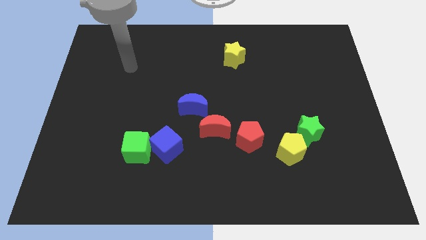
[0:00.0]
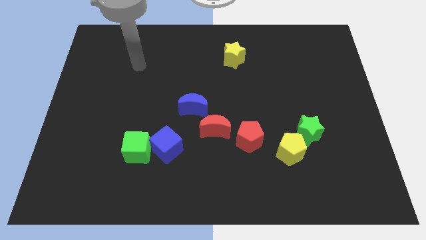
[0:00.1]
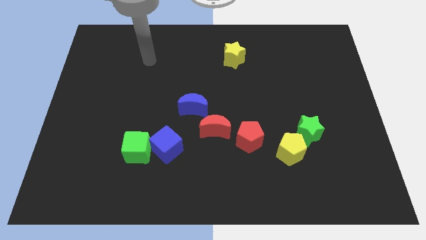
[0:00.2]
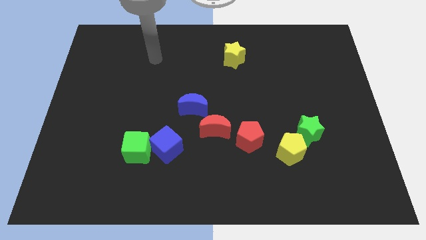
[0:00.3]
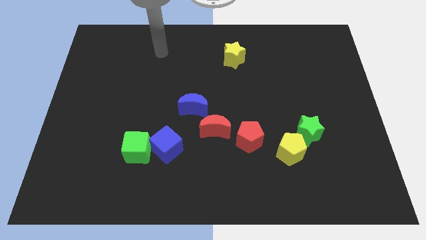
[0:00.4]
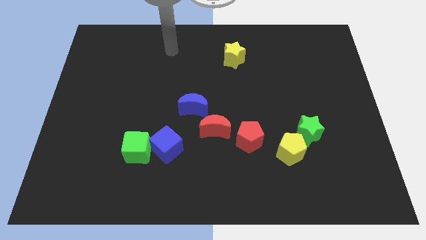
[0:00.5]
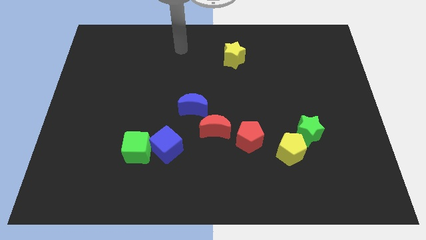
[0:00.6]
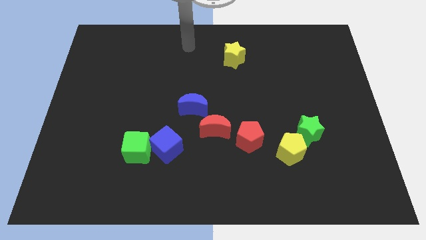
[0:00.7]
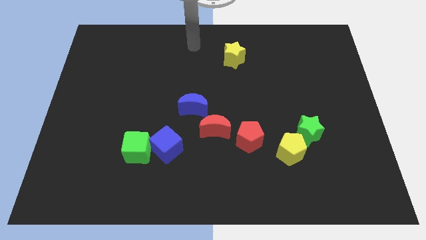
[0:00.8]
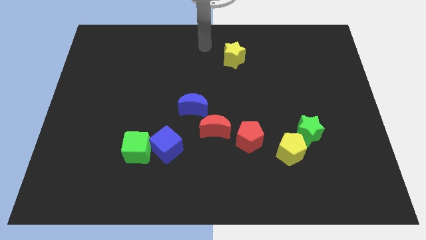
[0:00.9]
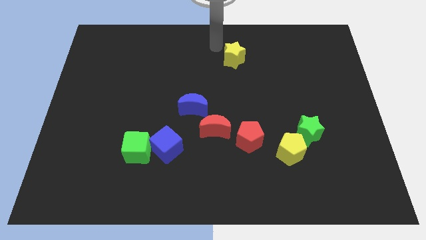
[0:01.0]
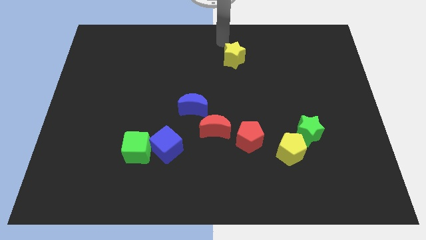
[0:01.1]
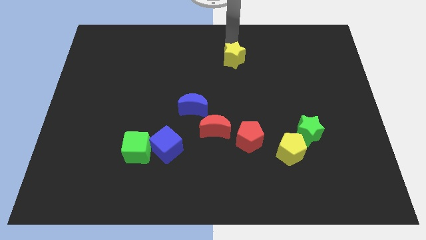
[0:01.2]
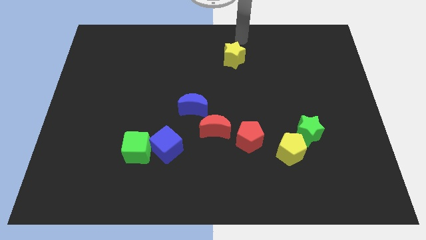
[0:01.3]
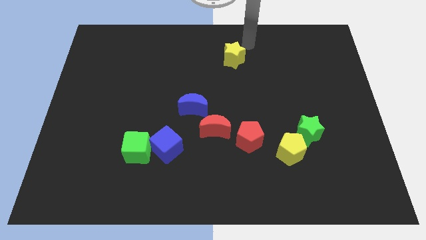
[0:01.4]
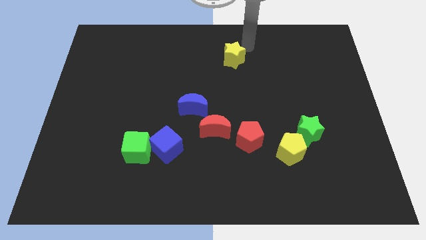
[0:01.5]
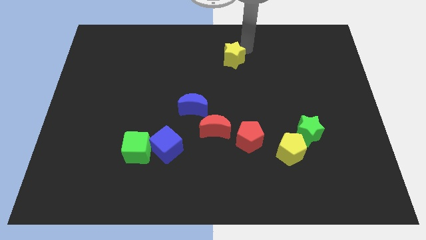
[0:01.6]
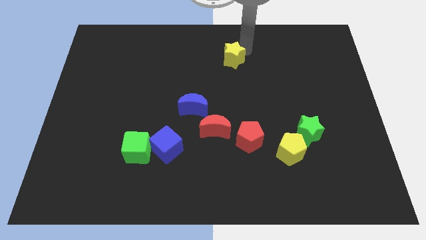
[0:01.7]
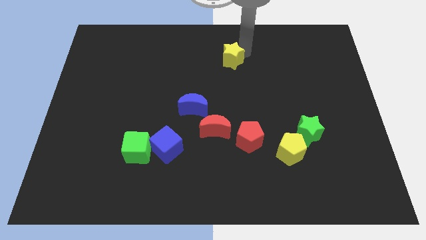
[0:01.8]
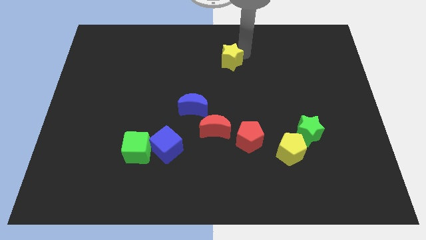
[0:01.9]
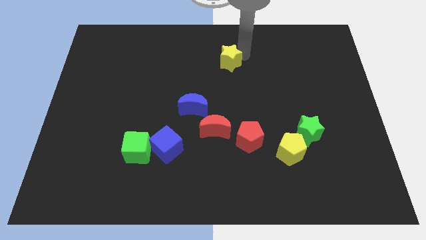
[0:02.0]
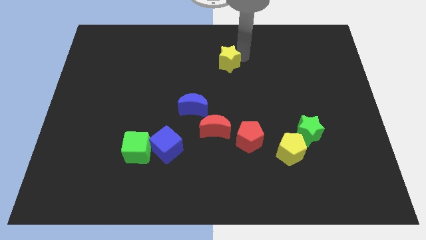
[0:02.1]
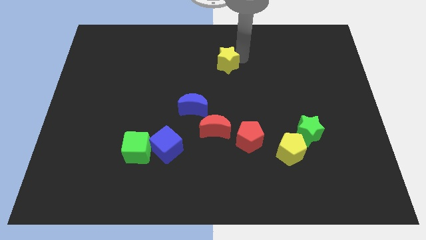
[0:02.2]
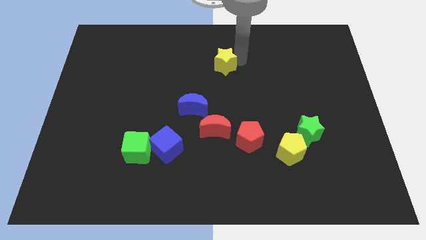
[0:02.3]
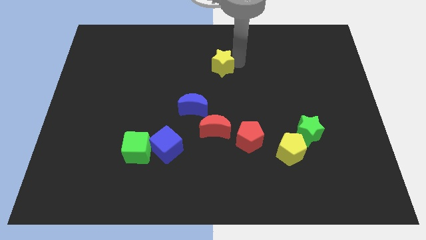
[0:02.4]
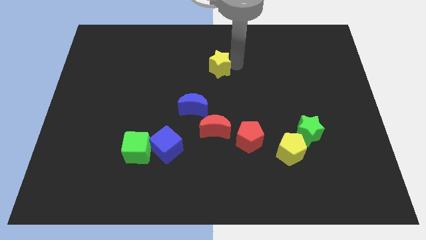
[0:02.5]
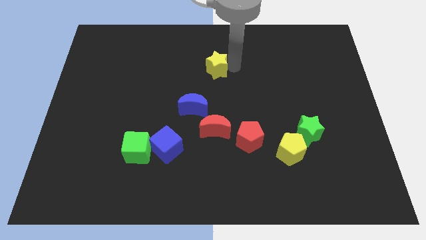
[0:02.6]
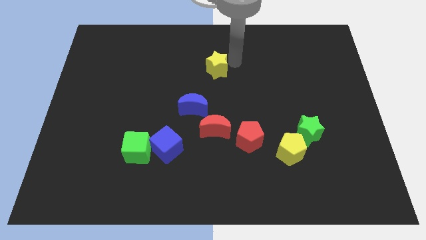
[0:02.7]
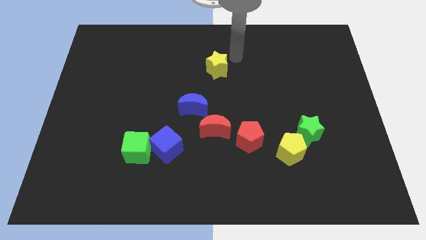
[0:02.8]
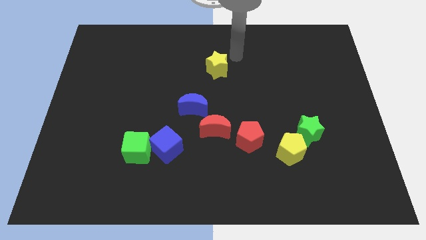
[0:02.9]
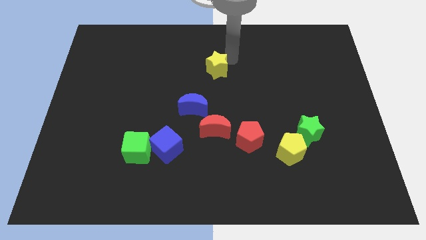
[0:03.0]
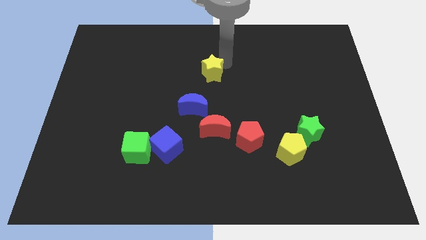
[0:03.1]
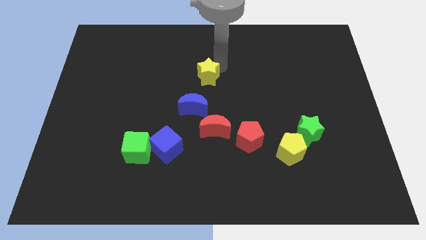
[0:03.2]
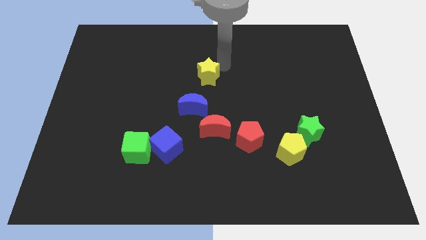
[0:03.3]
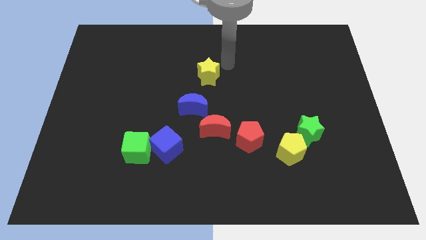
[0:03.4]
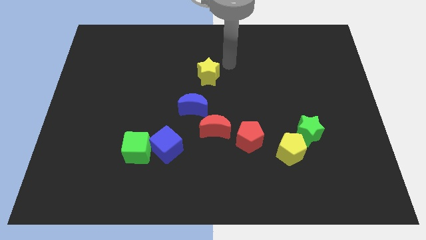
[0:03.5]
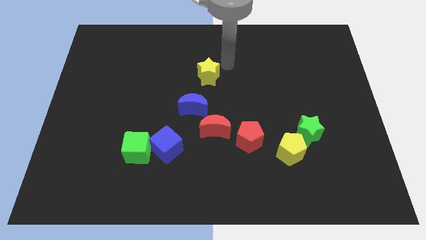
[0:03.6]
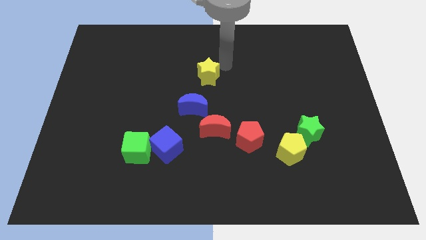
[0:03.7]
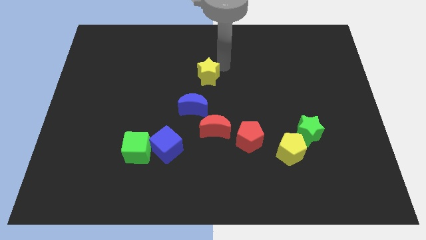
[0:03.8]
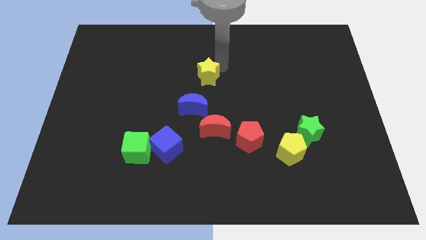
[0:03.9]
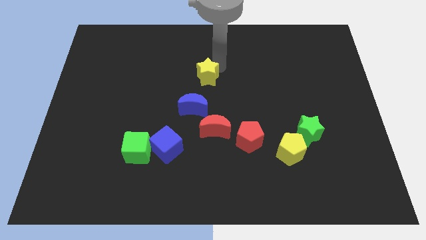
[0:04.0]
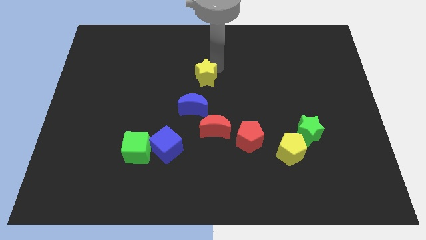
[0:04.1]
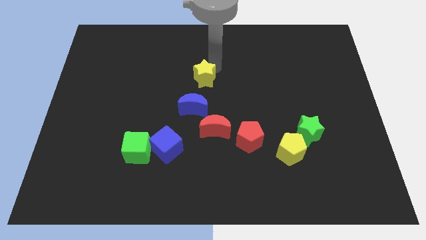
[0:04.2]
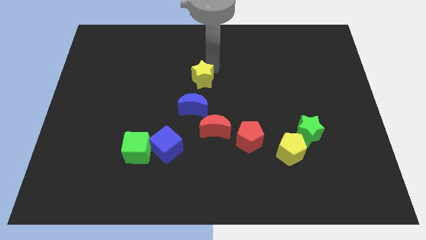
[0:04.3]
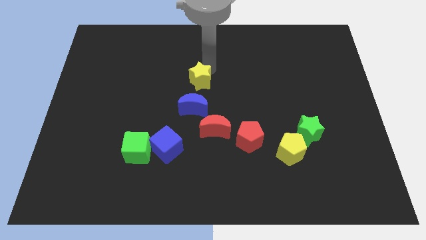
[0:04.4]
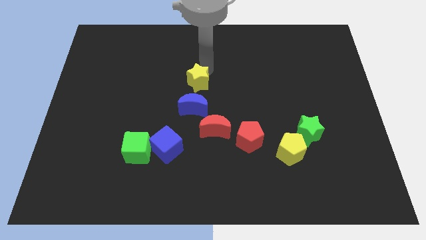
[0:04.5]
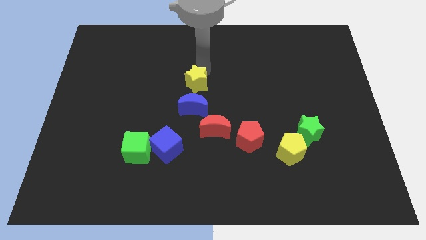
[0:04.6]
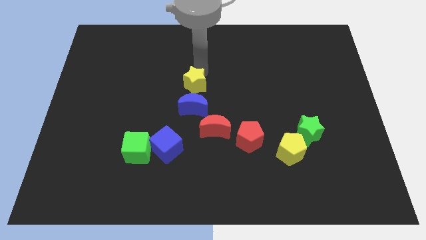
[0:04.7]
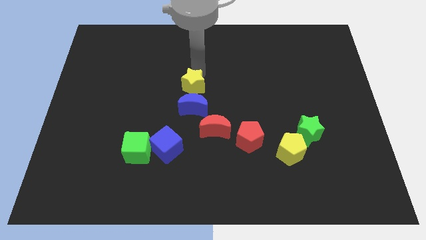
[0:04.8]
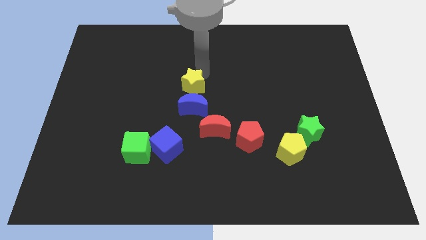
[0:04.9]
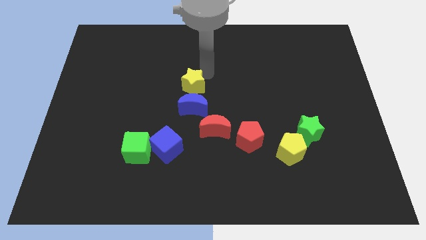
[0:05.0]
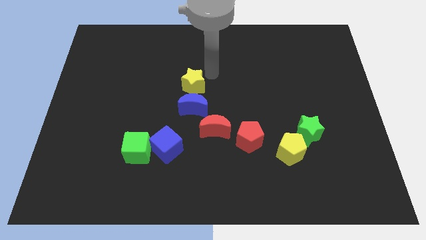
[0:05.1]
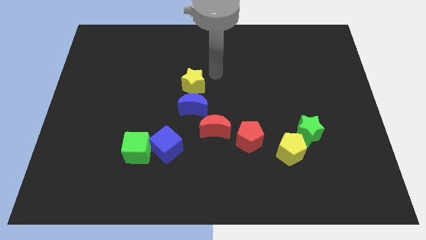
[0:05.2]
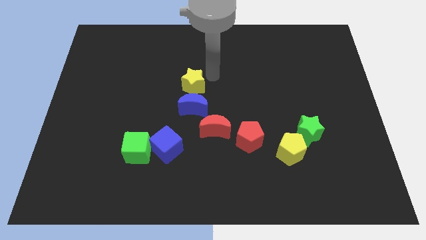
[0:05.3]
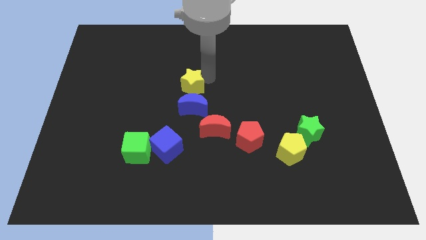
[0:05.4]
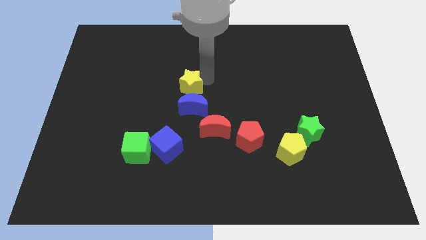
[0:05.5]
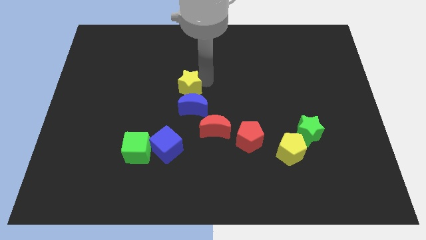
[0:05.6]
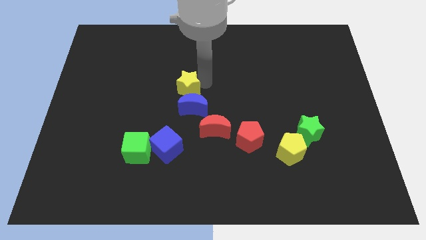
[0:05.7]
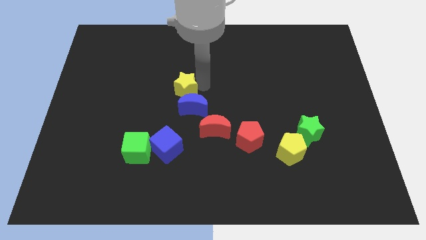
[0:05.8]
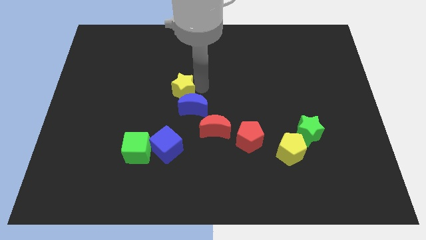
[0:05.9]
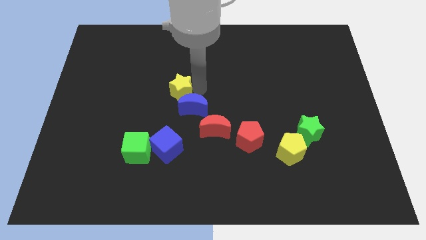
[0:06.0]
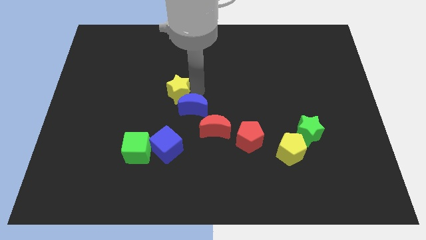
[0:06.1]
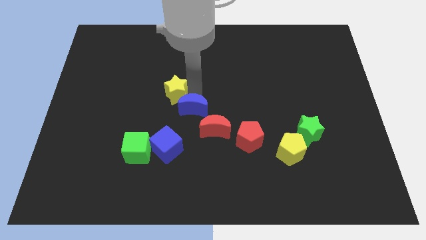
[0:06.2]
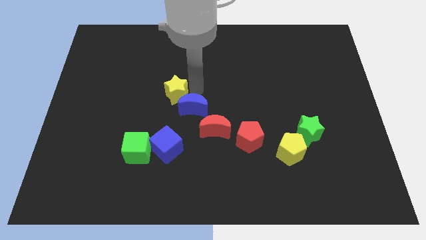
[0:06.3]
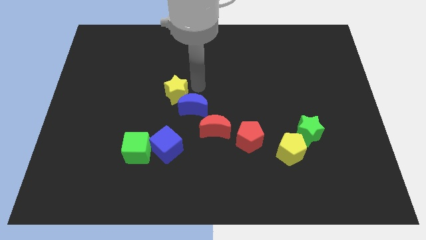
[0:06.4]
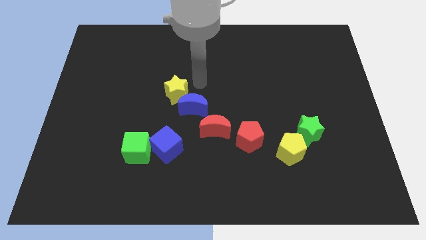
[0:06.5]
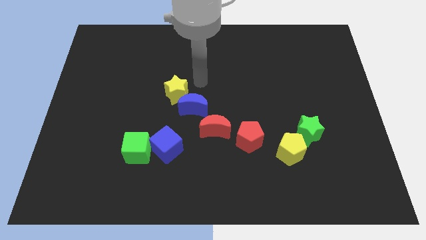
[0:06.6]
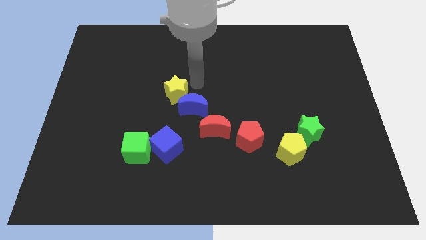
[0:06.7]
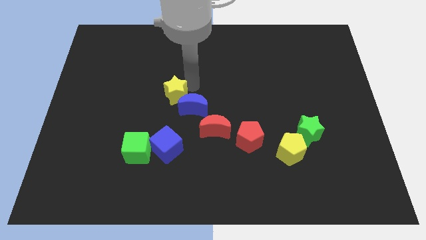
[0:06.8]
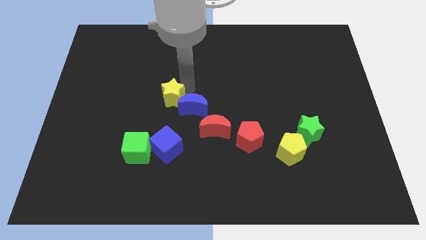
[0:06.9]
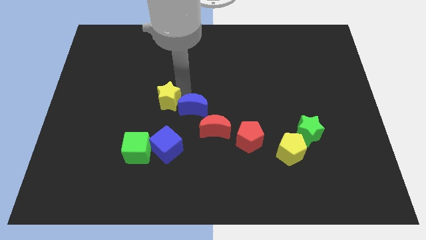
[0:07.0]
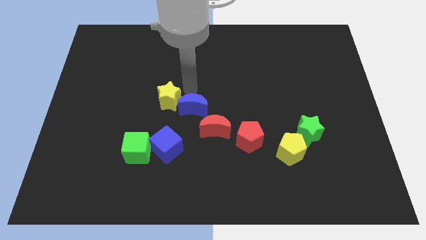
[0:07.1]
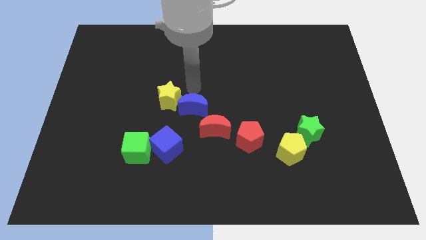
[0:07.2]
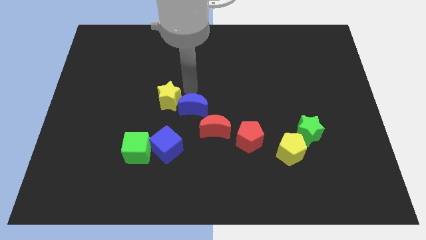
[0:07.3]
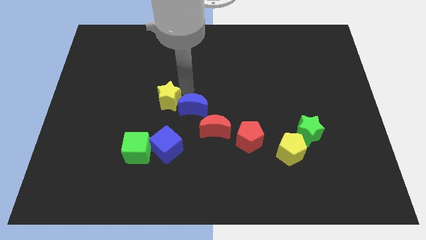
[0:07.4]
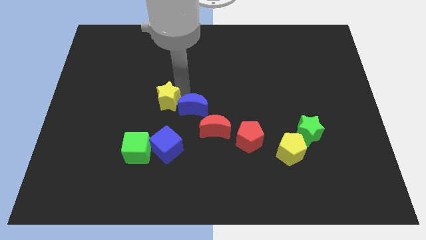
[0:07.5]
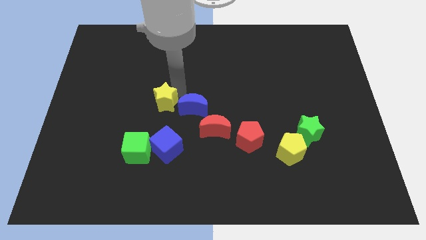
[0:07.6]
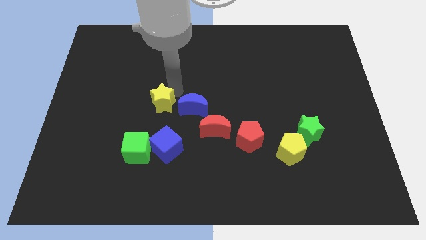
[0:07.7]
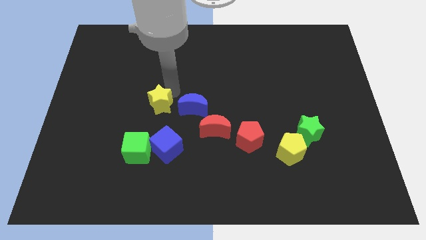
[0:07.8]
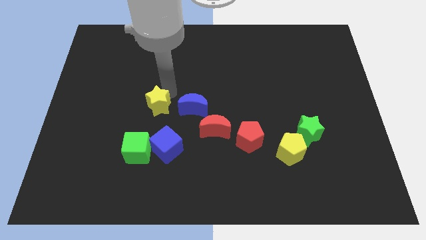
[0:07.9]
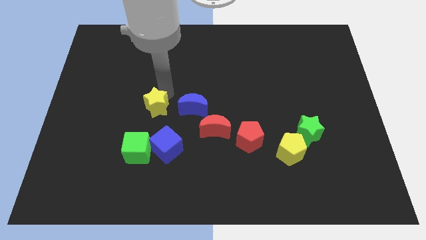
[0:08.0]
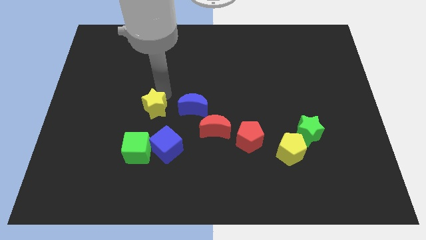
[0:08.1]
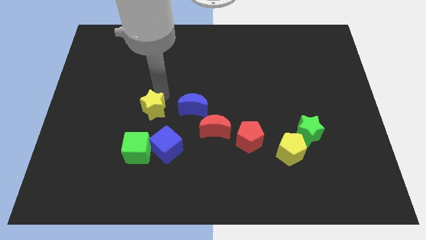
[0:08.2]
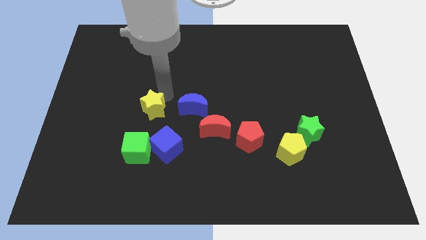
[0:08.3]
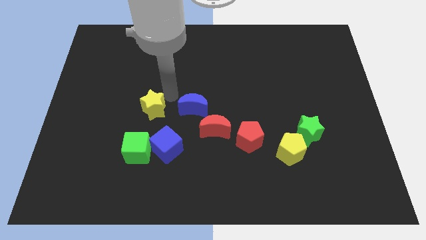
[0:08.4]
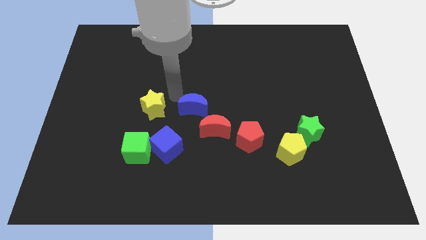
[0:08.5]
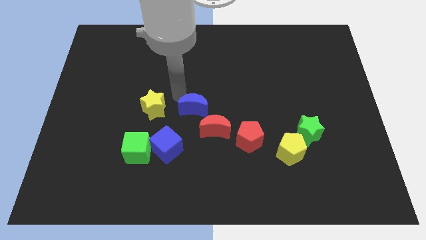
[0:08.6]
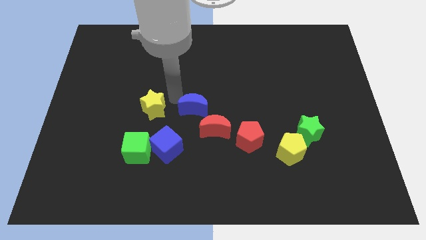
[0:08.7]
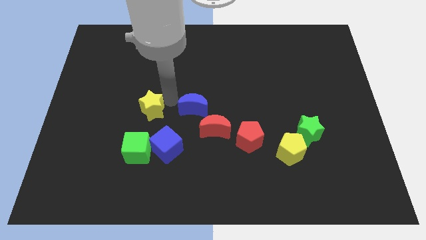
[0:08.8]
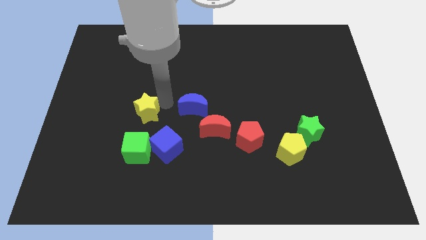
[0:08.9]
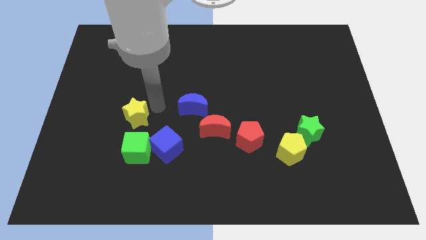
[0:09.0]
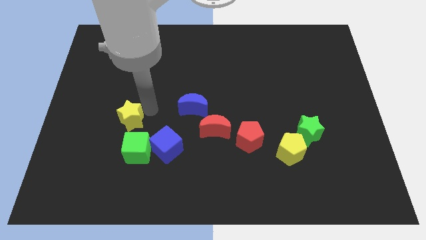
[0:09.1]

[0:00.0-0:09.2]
put the yellow star to the top left of the green cube
